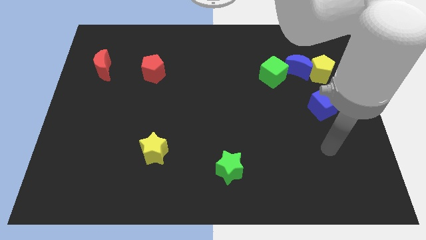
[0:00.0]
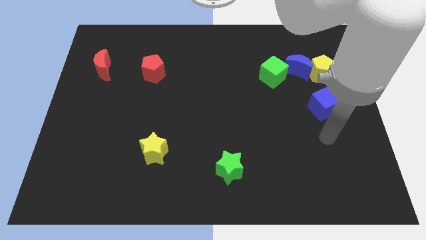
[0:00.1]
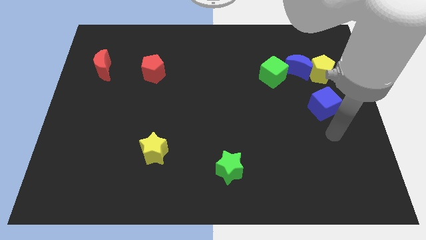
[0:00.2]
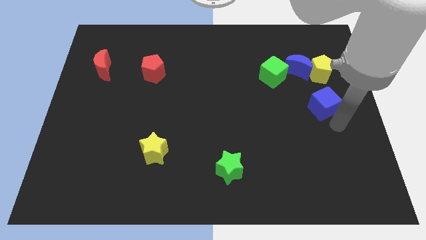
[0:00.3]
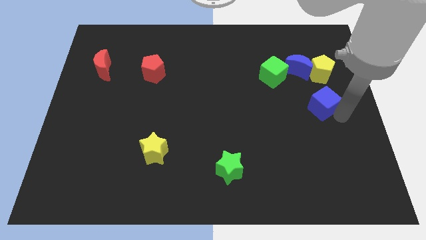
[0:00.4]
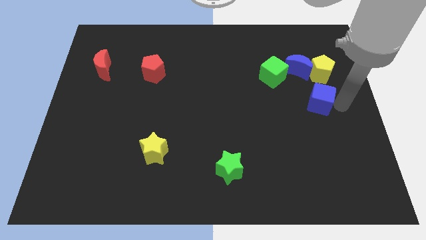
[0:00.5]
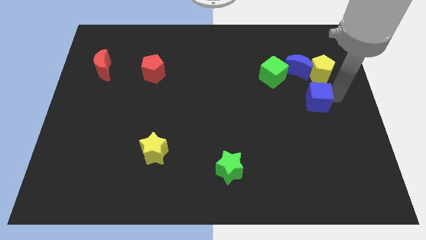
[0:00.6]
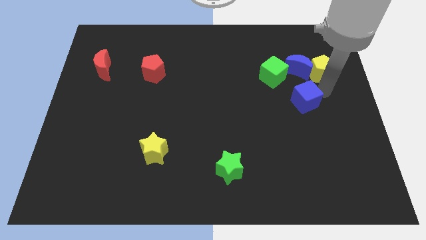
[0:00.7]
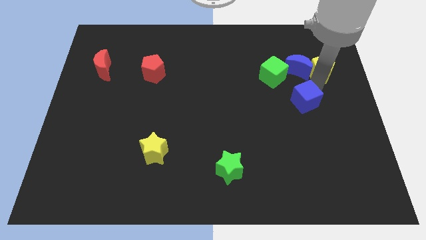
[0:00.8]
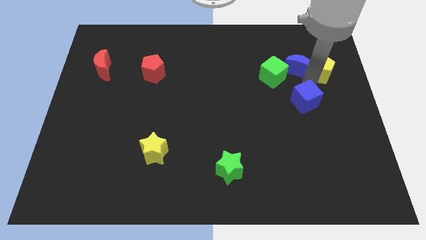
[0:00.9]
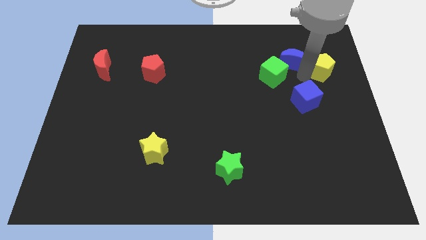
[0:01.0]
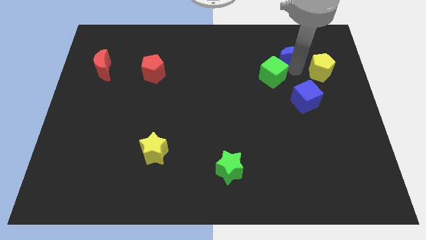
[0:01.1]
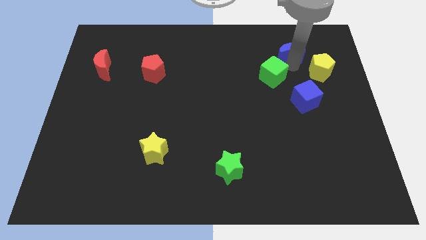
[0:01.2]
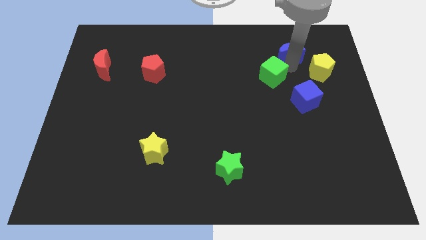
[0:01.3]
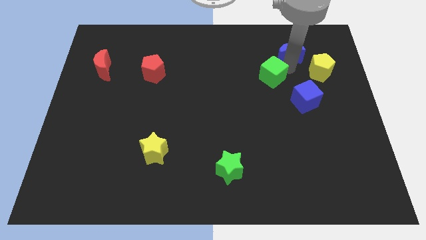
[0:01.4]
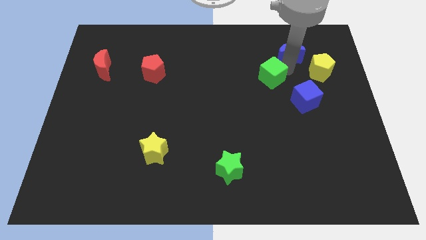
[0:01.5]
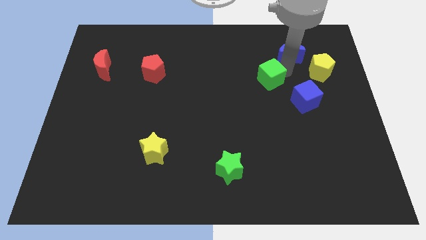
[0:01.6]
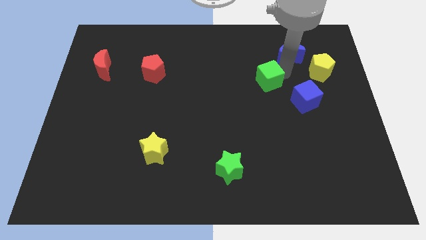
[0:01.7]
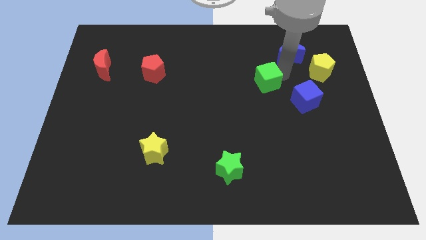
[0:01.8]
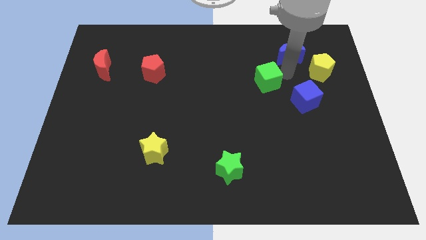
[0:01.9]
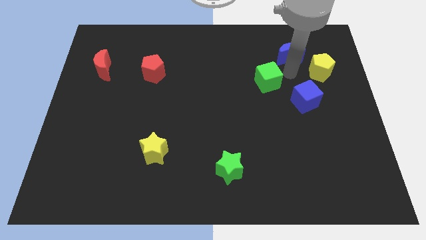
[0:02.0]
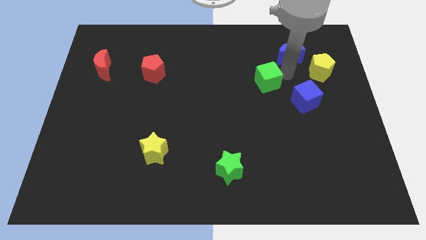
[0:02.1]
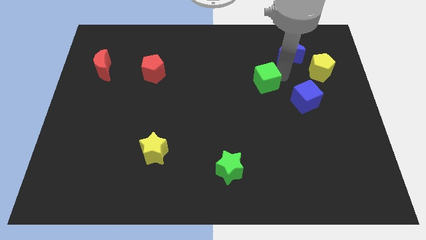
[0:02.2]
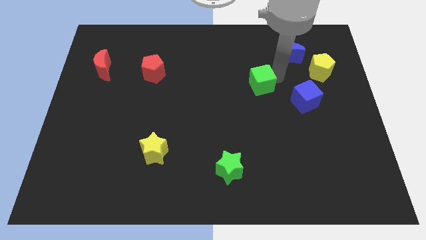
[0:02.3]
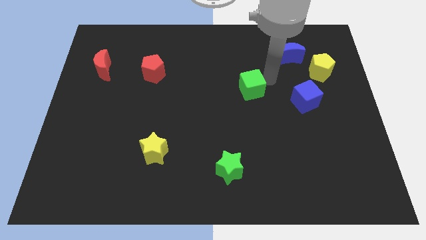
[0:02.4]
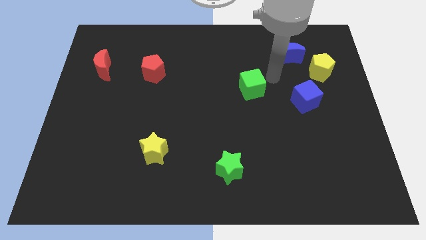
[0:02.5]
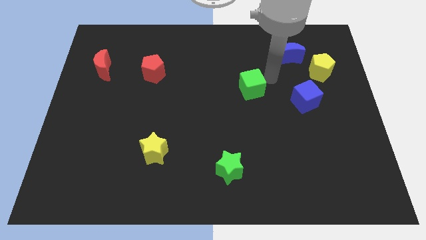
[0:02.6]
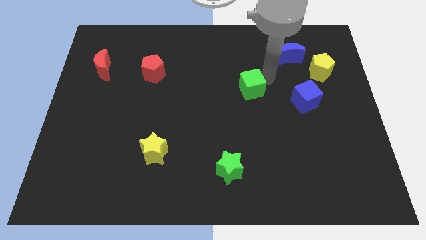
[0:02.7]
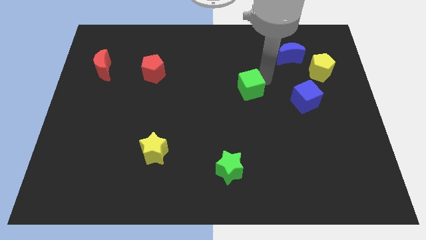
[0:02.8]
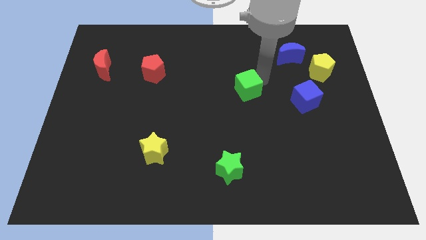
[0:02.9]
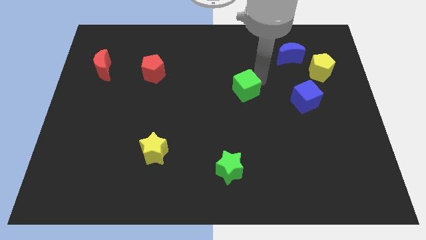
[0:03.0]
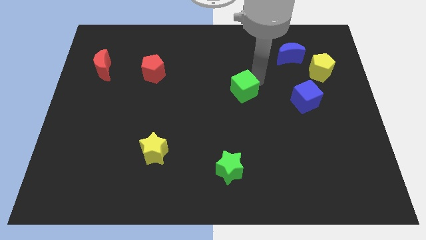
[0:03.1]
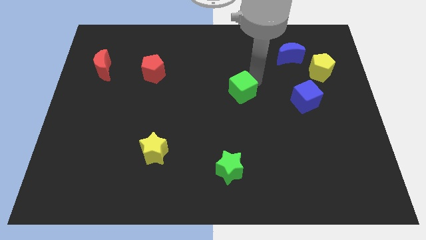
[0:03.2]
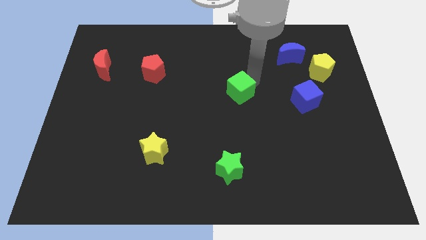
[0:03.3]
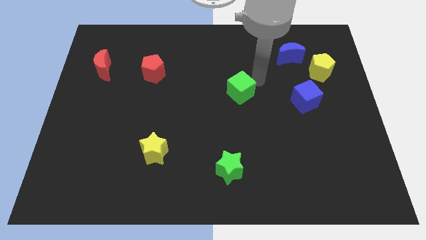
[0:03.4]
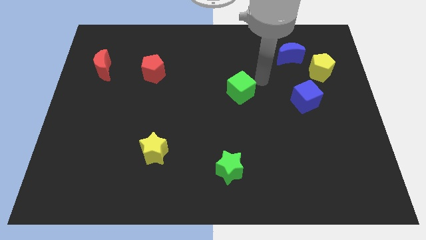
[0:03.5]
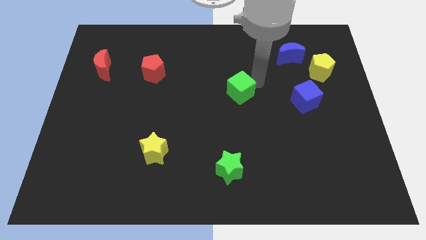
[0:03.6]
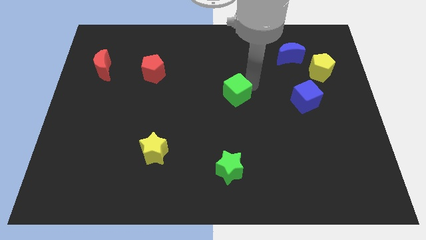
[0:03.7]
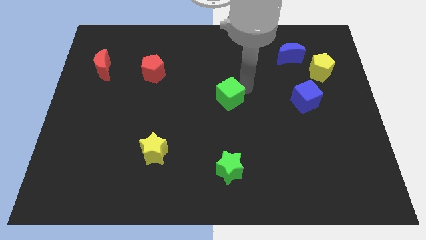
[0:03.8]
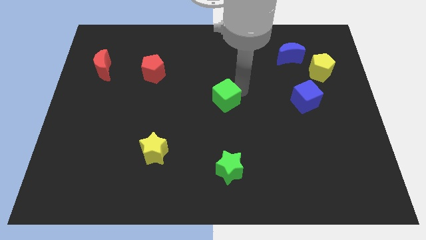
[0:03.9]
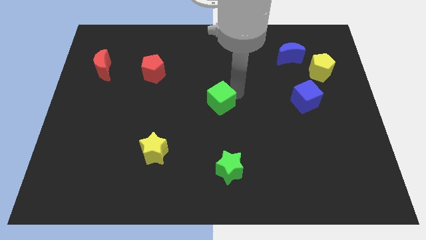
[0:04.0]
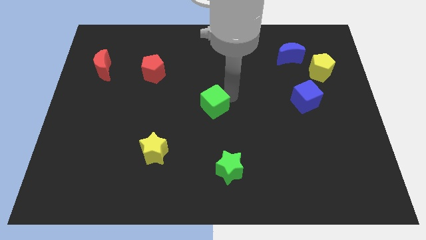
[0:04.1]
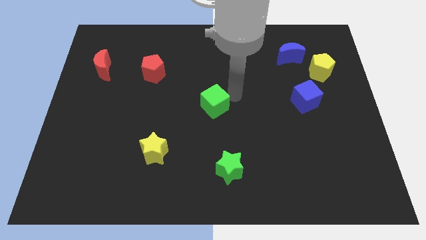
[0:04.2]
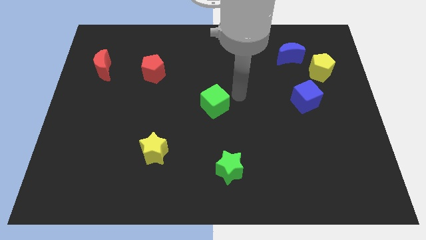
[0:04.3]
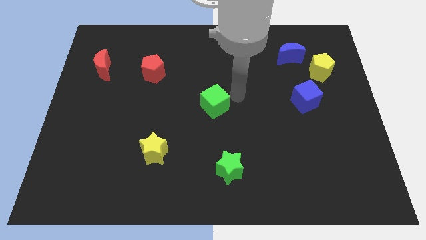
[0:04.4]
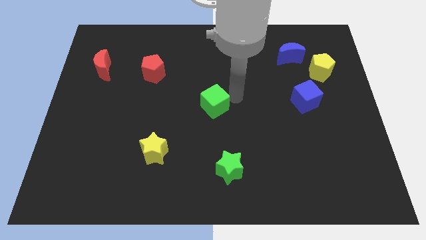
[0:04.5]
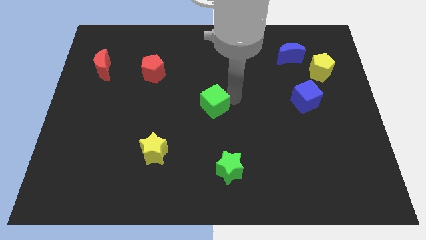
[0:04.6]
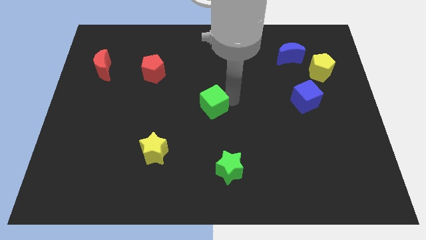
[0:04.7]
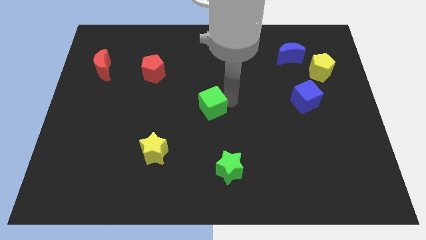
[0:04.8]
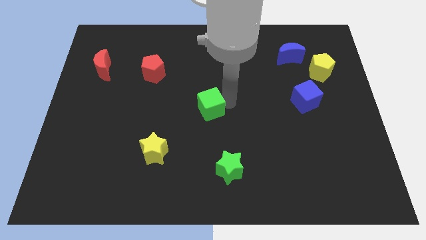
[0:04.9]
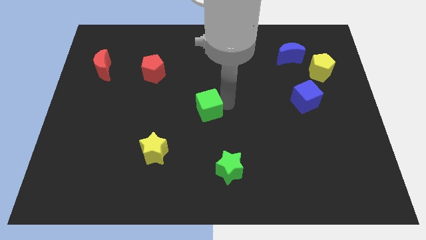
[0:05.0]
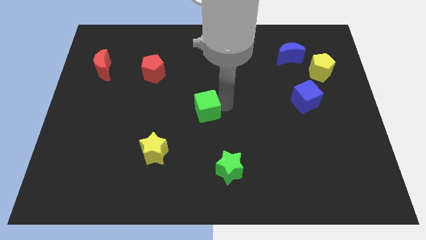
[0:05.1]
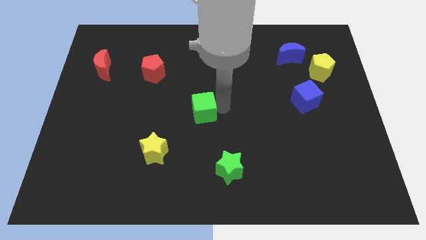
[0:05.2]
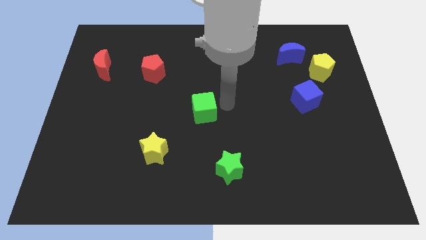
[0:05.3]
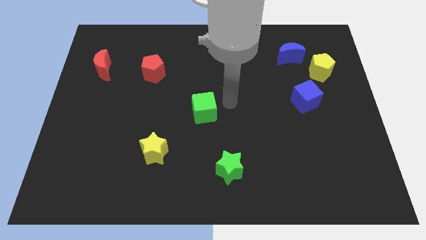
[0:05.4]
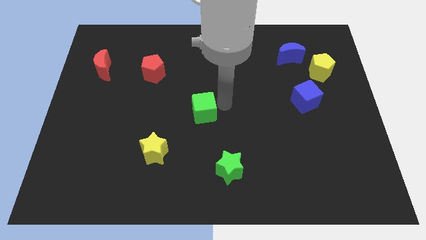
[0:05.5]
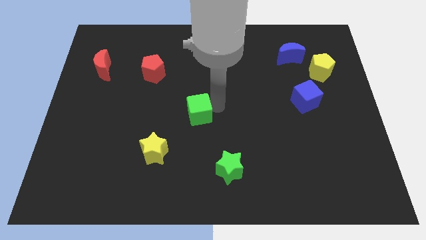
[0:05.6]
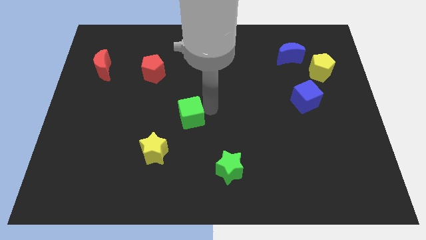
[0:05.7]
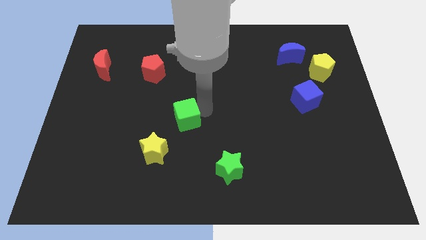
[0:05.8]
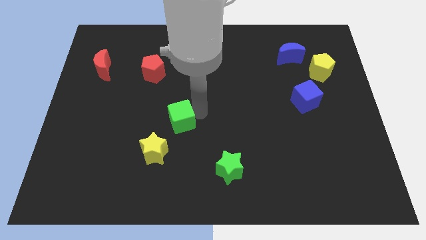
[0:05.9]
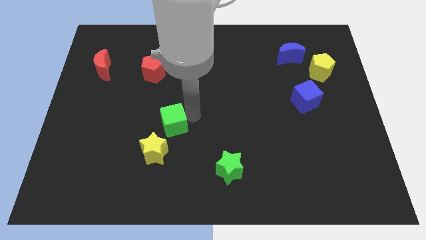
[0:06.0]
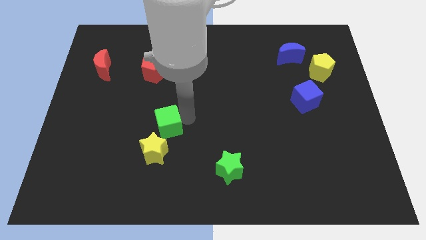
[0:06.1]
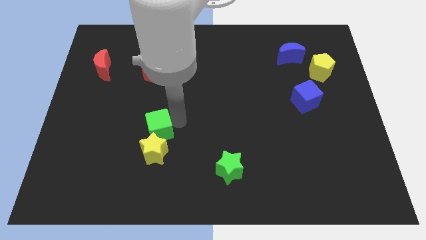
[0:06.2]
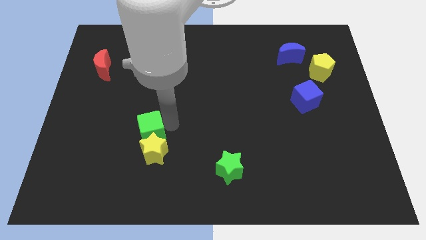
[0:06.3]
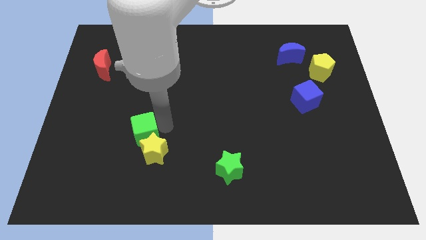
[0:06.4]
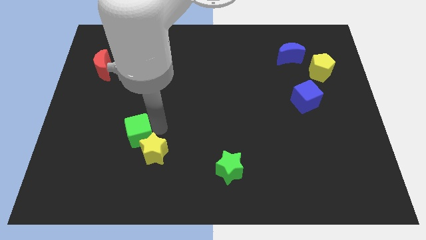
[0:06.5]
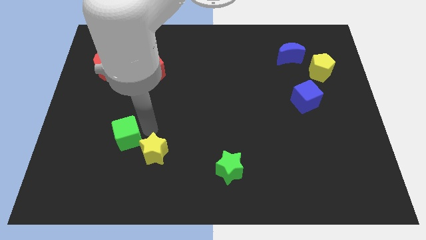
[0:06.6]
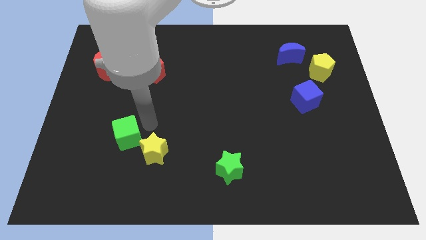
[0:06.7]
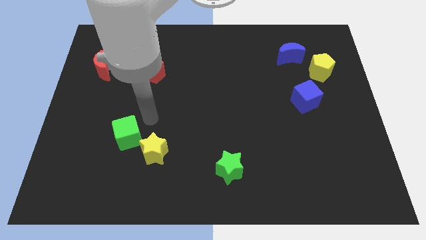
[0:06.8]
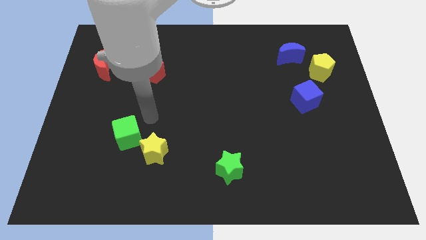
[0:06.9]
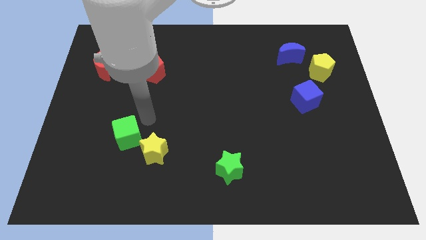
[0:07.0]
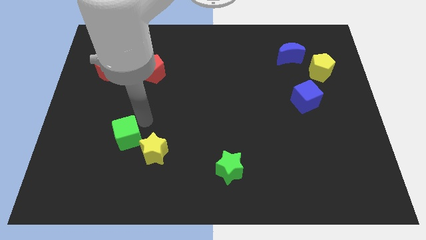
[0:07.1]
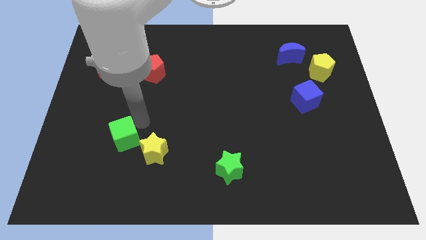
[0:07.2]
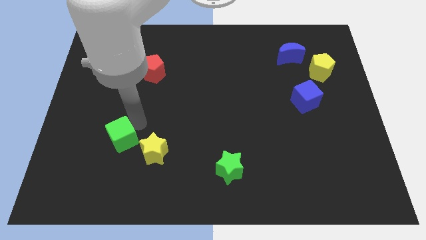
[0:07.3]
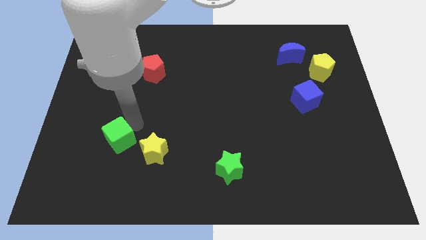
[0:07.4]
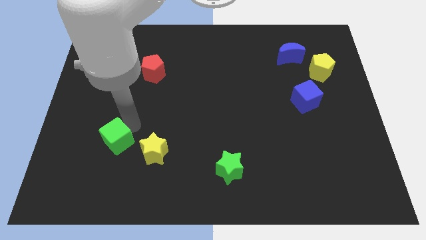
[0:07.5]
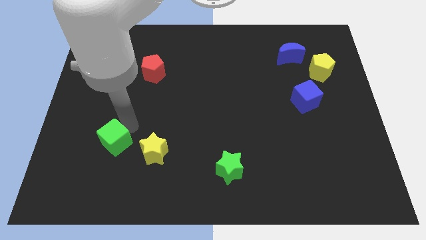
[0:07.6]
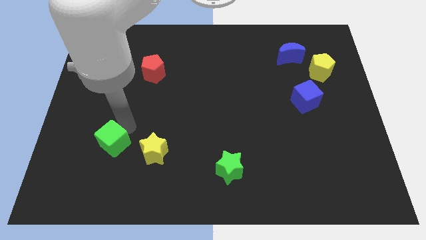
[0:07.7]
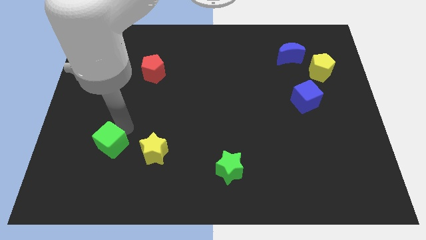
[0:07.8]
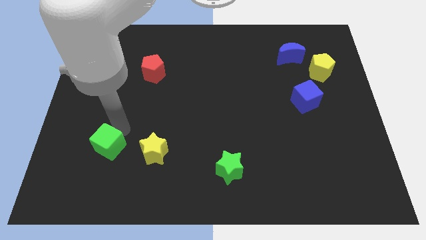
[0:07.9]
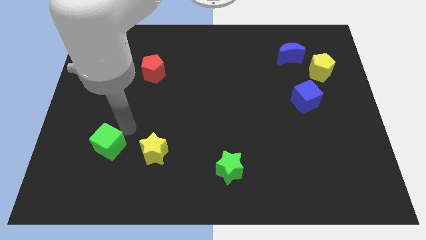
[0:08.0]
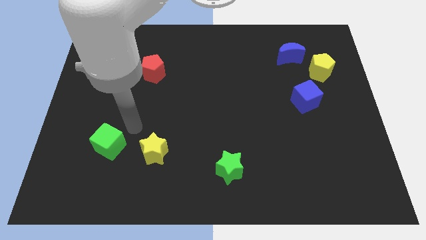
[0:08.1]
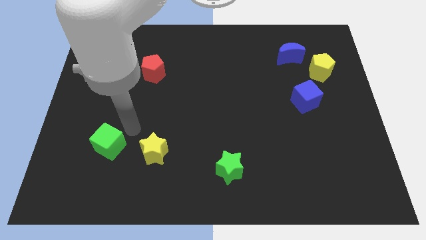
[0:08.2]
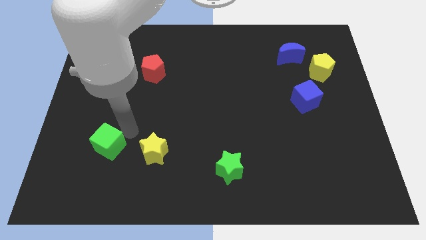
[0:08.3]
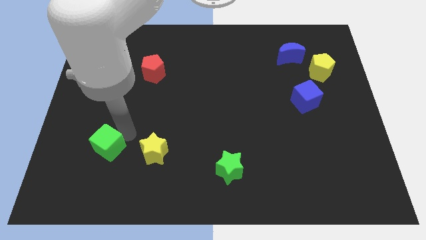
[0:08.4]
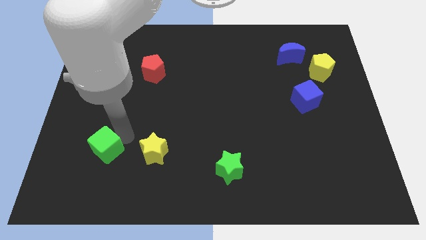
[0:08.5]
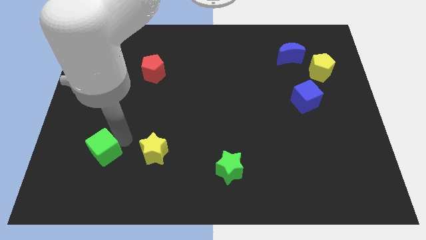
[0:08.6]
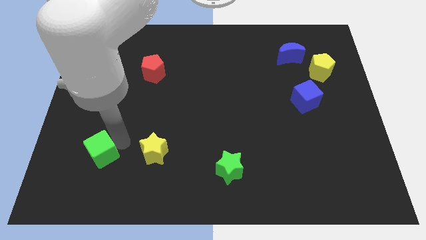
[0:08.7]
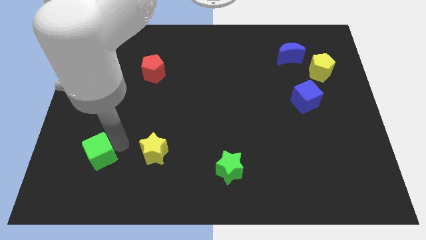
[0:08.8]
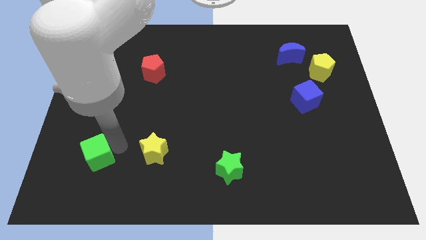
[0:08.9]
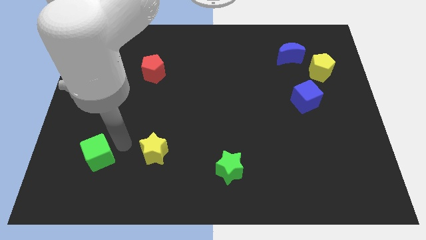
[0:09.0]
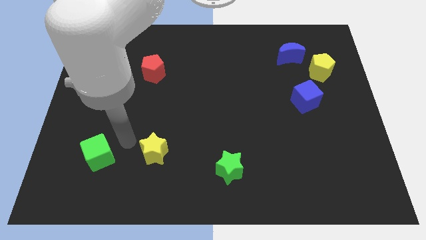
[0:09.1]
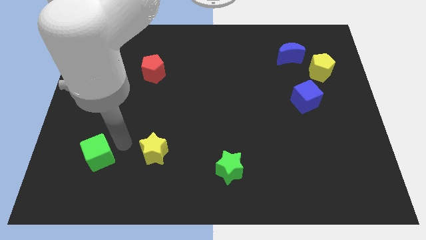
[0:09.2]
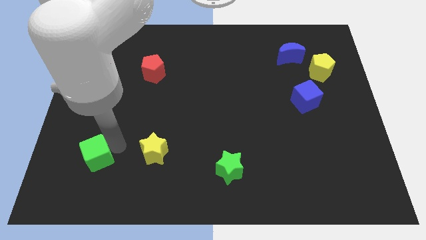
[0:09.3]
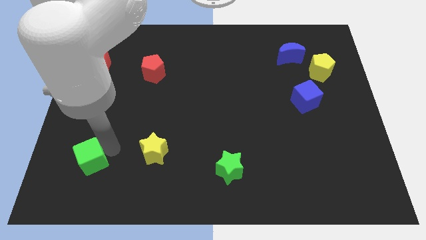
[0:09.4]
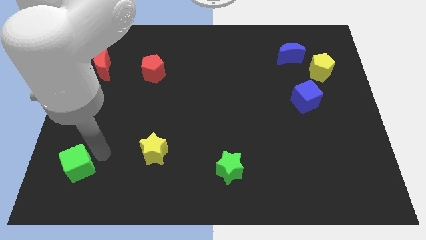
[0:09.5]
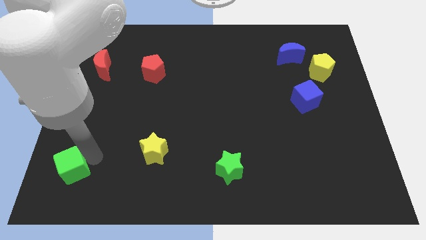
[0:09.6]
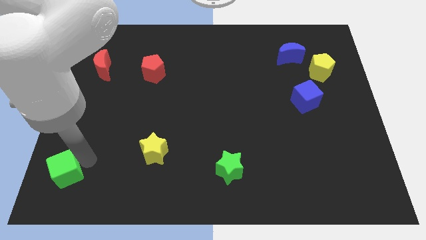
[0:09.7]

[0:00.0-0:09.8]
move the green cube to the bottom left of the board
